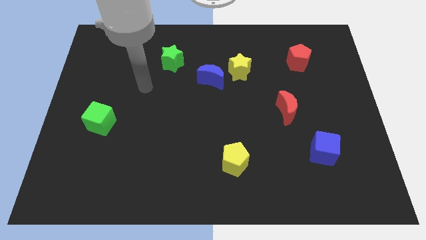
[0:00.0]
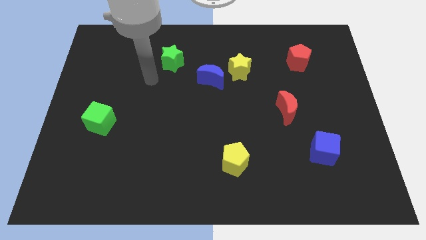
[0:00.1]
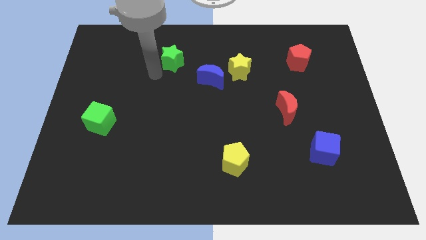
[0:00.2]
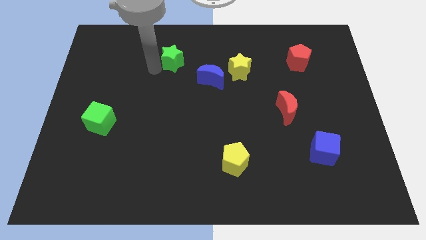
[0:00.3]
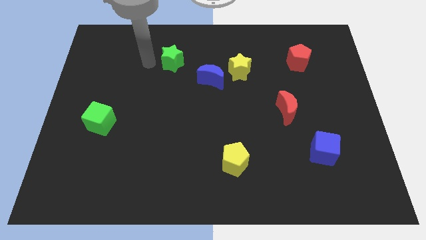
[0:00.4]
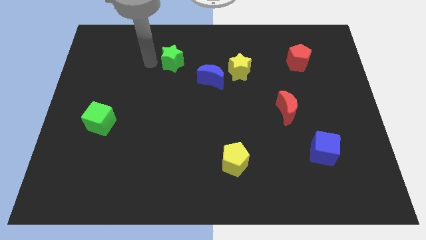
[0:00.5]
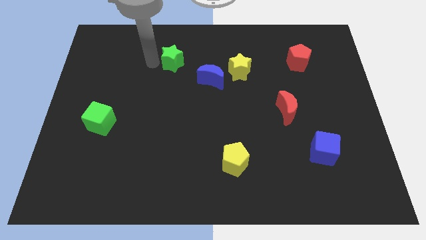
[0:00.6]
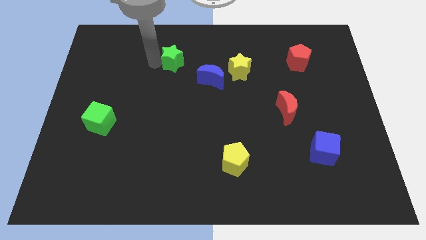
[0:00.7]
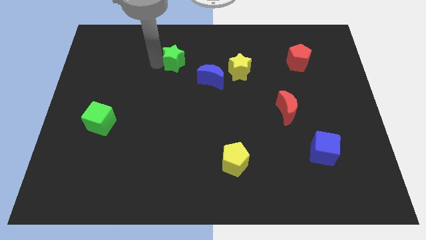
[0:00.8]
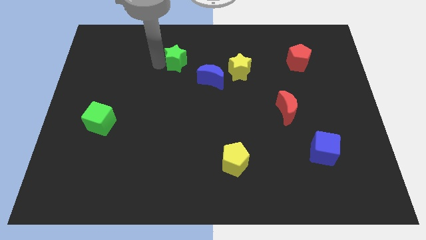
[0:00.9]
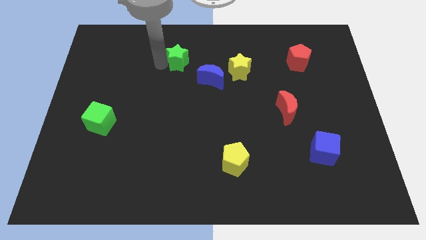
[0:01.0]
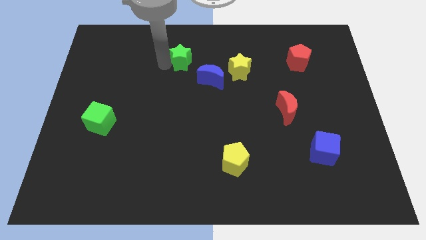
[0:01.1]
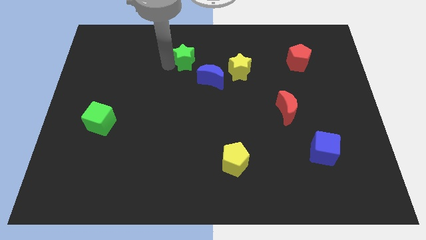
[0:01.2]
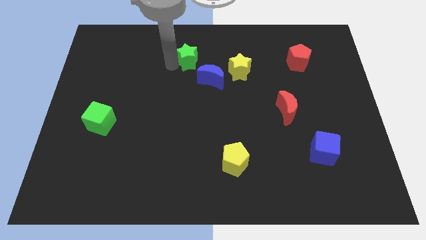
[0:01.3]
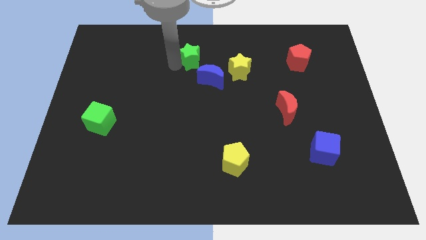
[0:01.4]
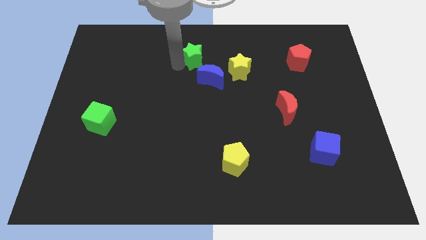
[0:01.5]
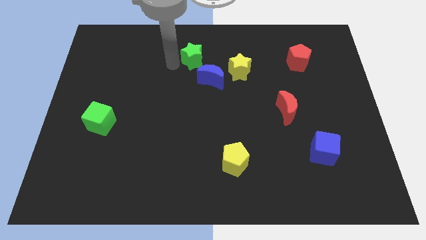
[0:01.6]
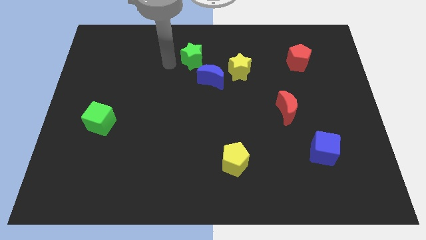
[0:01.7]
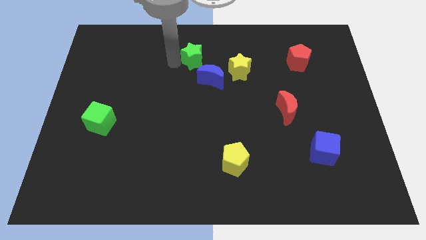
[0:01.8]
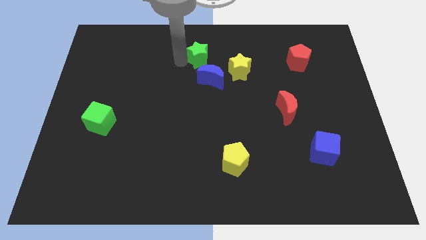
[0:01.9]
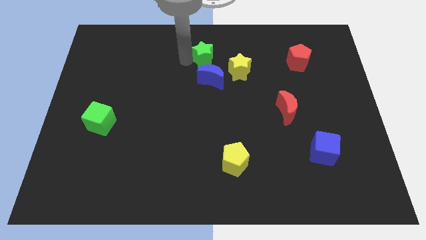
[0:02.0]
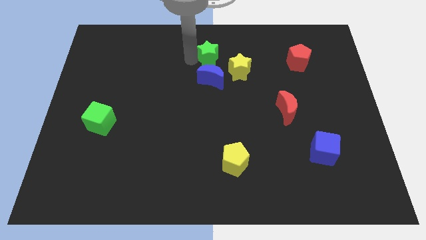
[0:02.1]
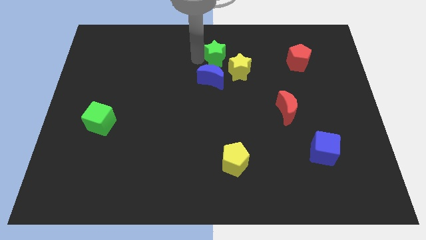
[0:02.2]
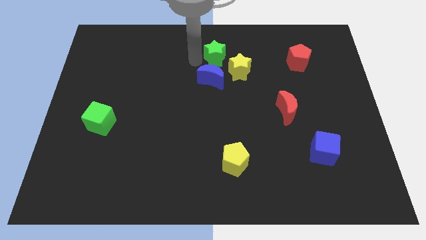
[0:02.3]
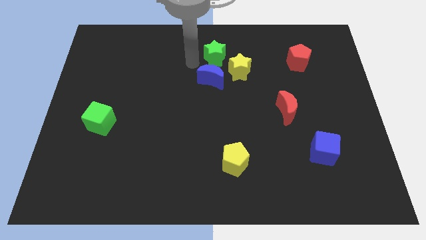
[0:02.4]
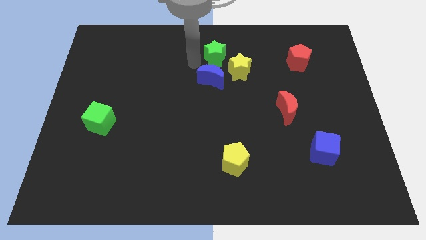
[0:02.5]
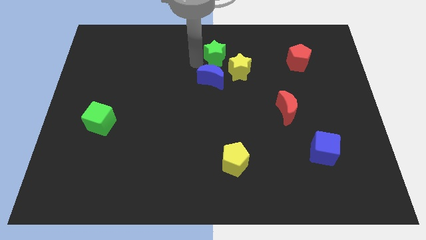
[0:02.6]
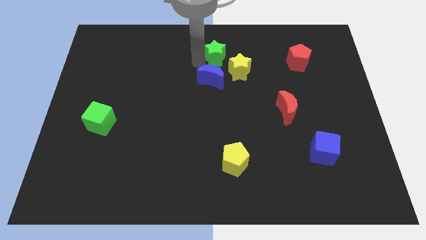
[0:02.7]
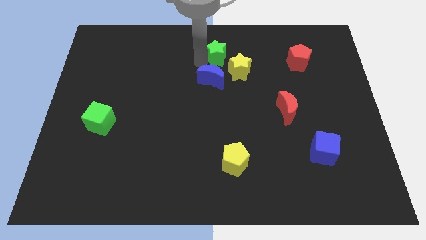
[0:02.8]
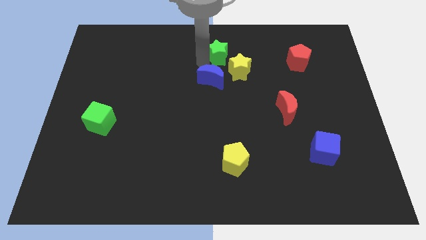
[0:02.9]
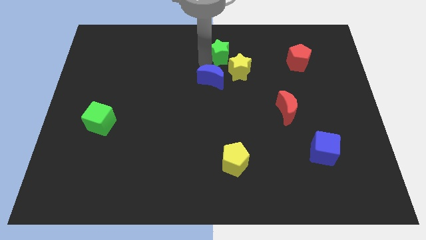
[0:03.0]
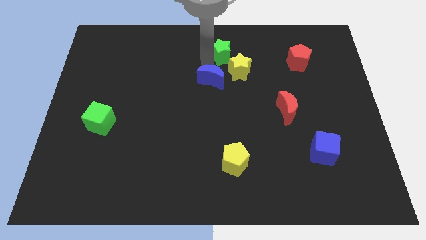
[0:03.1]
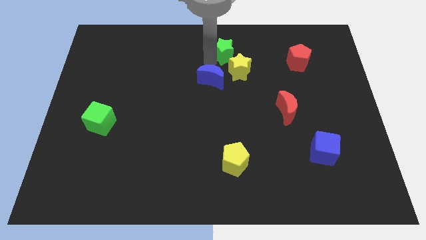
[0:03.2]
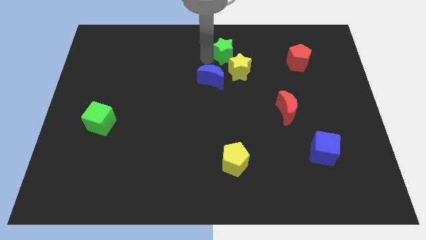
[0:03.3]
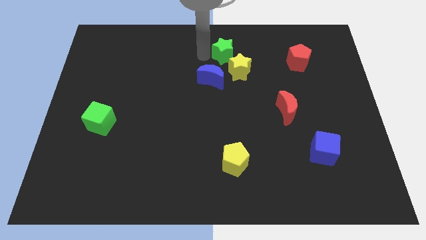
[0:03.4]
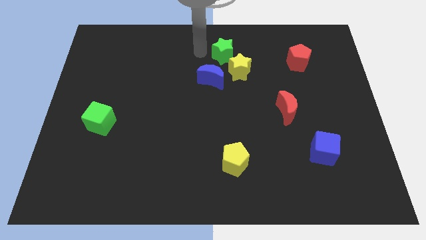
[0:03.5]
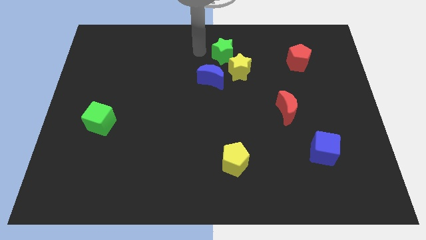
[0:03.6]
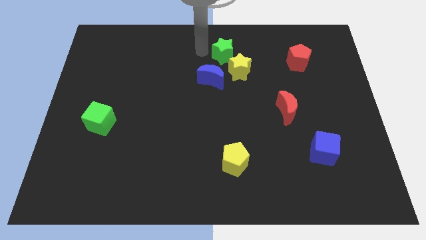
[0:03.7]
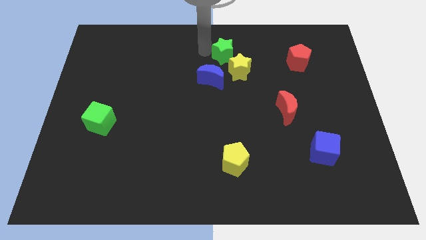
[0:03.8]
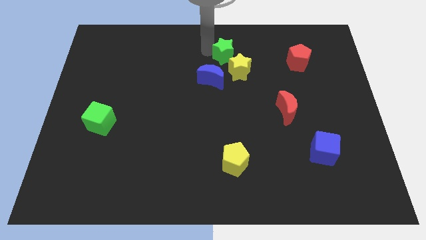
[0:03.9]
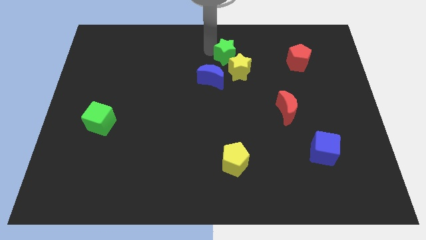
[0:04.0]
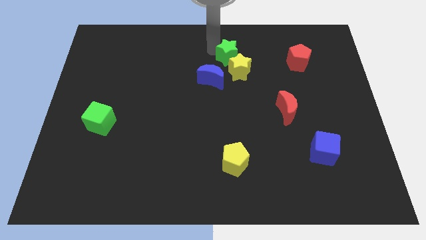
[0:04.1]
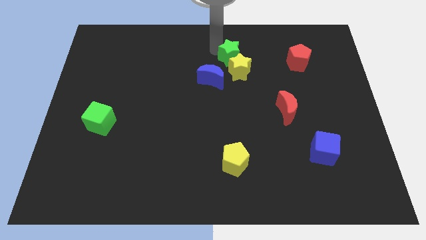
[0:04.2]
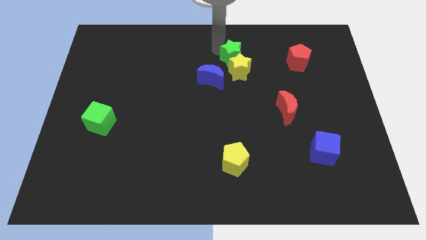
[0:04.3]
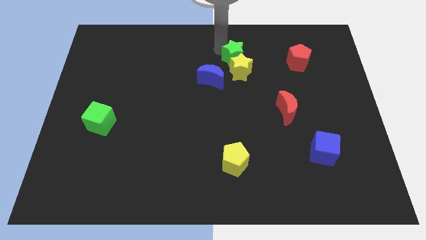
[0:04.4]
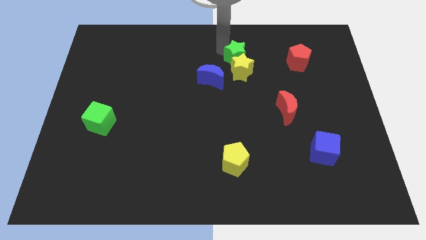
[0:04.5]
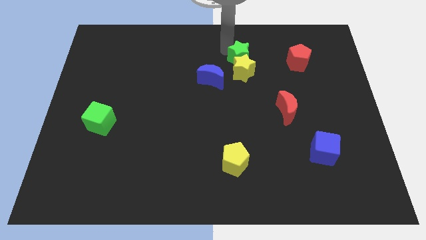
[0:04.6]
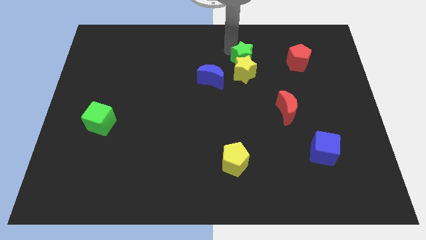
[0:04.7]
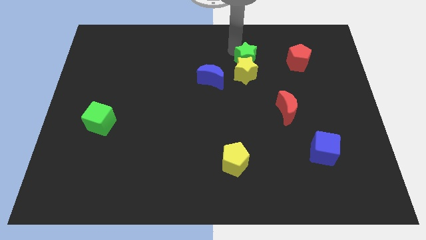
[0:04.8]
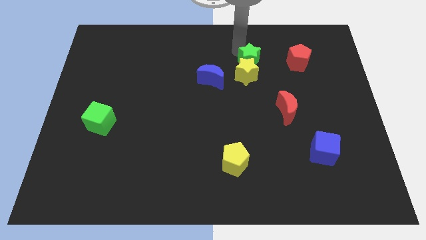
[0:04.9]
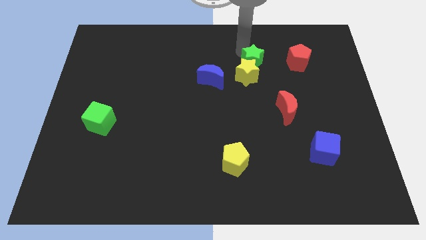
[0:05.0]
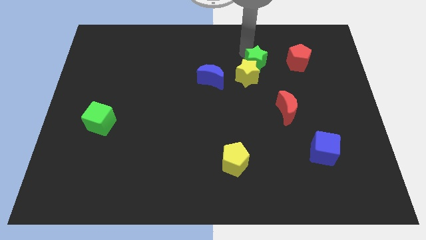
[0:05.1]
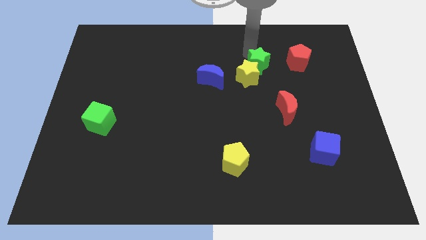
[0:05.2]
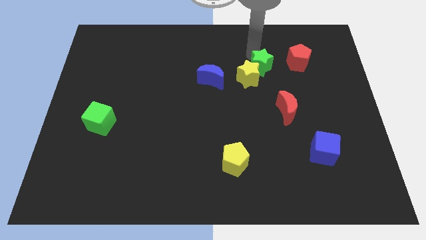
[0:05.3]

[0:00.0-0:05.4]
slide the green star to the right side of the yellow star

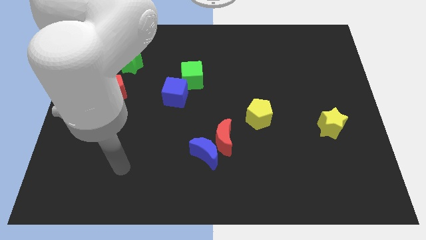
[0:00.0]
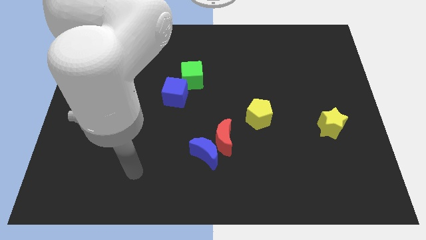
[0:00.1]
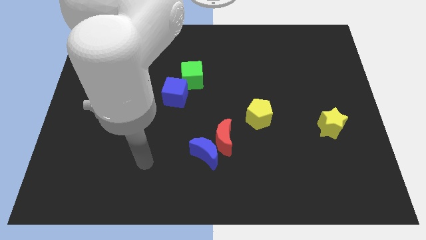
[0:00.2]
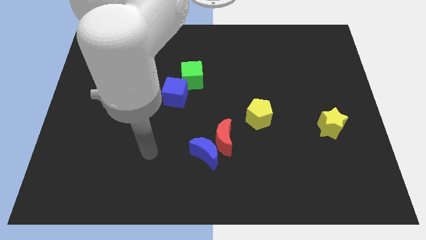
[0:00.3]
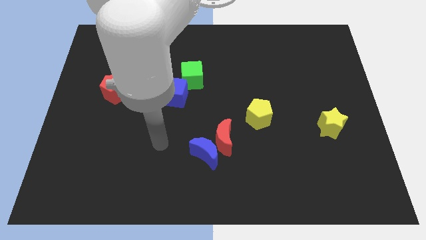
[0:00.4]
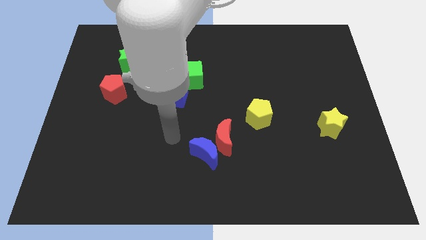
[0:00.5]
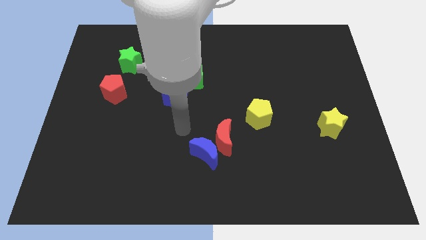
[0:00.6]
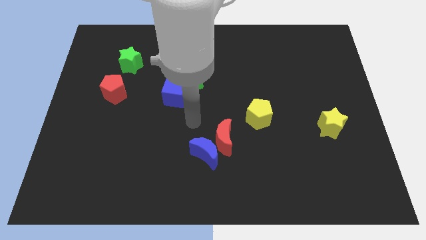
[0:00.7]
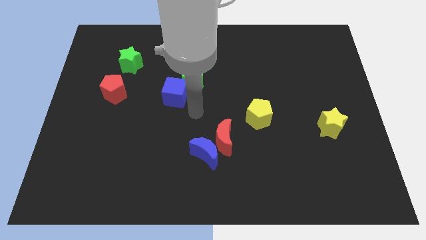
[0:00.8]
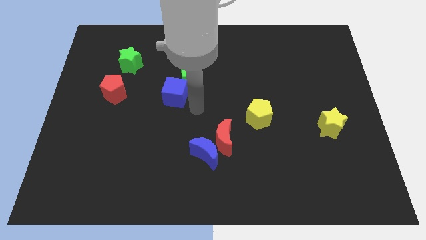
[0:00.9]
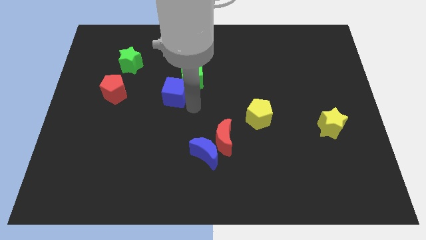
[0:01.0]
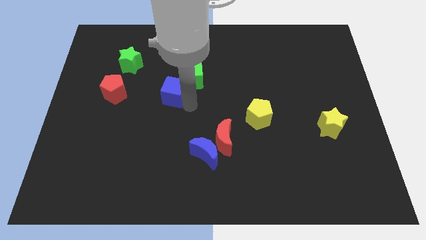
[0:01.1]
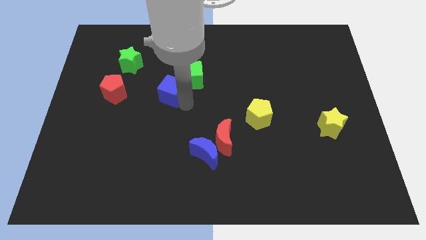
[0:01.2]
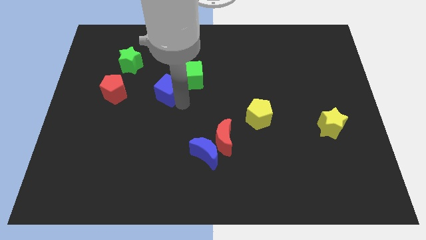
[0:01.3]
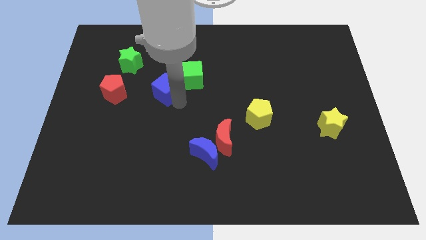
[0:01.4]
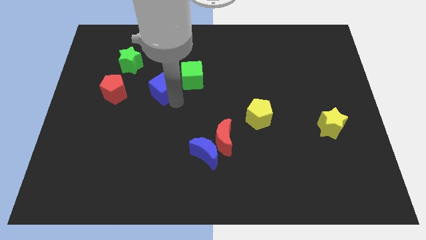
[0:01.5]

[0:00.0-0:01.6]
push the blue cube to the bottom right of the green star
